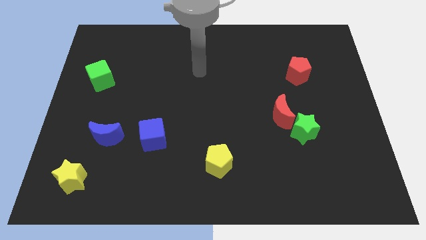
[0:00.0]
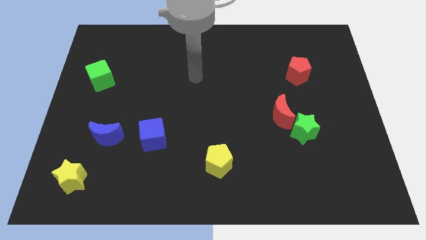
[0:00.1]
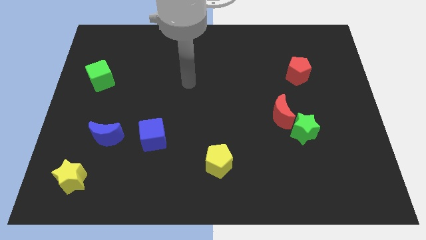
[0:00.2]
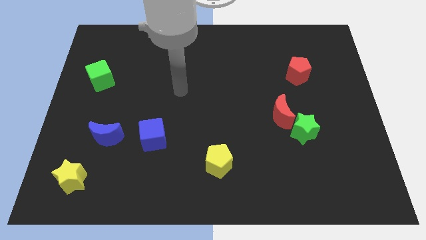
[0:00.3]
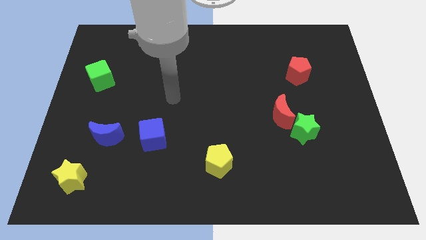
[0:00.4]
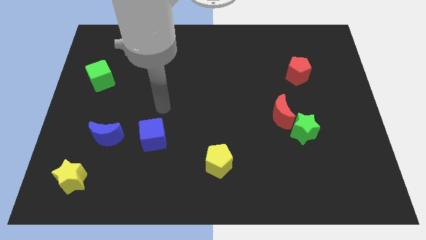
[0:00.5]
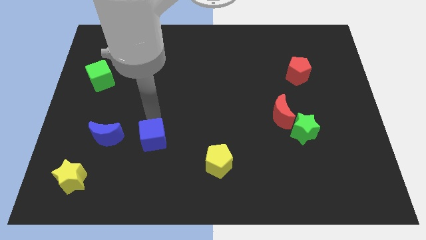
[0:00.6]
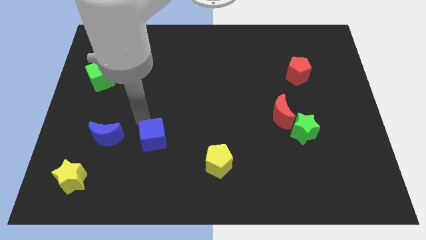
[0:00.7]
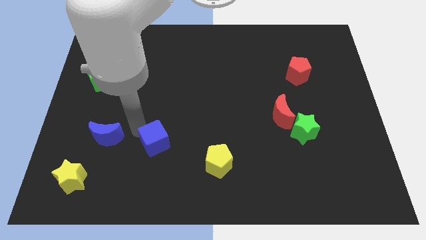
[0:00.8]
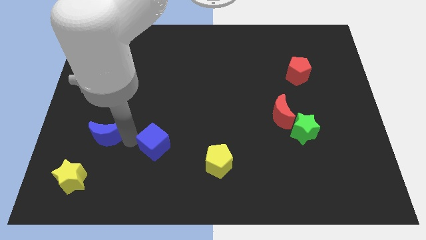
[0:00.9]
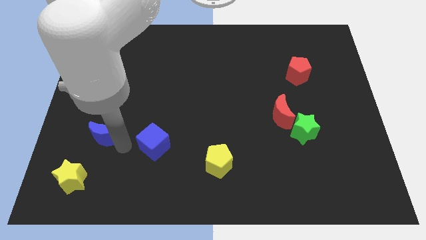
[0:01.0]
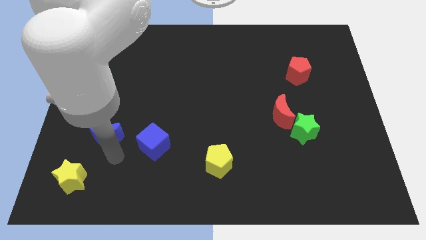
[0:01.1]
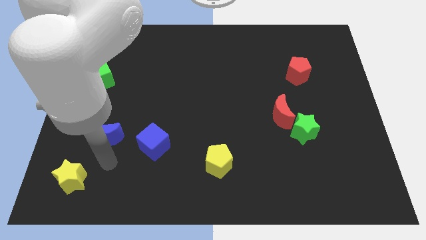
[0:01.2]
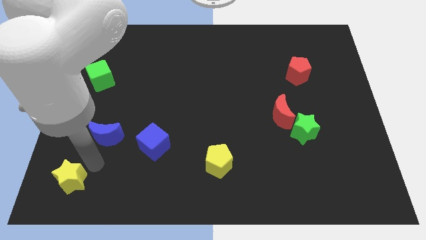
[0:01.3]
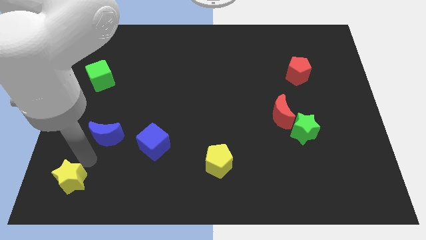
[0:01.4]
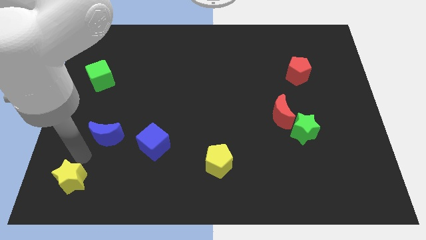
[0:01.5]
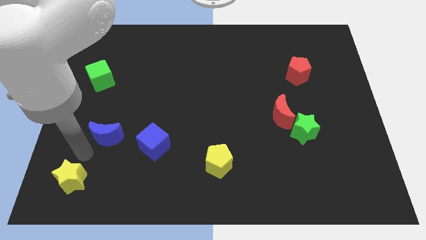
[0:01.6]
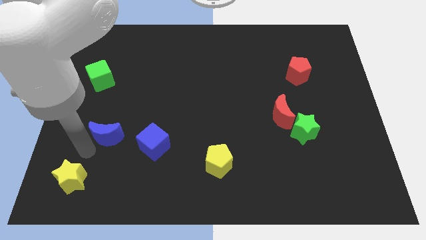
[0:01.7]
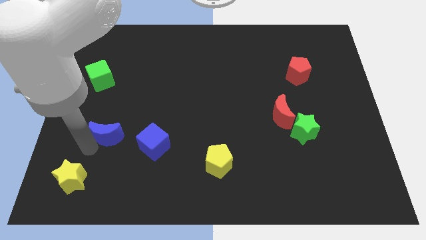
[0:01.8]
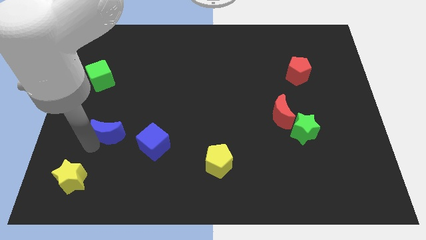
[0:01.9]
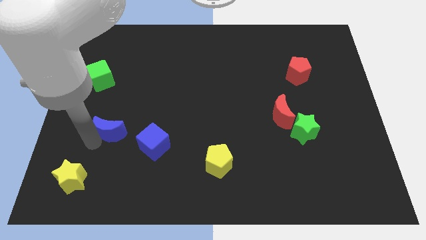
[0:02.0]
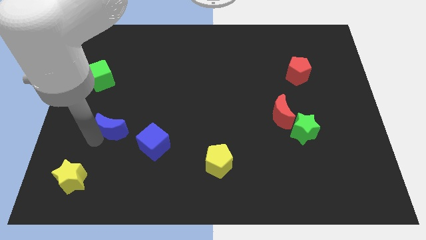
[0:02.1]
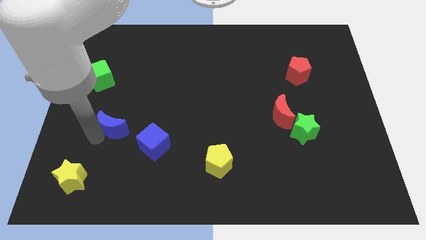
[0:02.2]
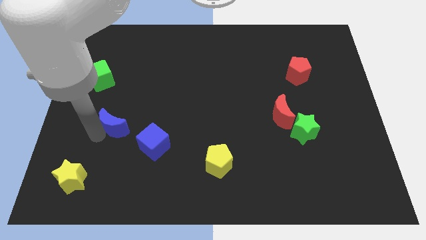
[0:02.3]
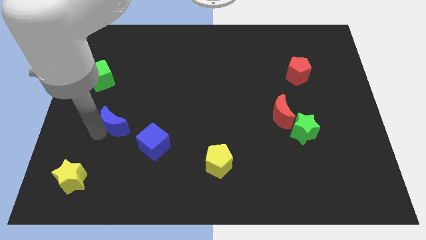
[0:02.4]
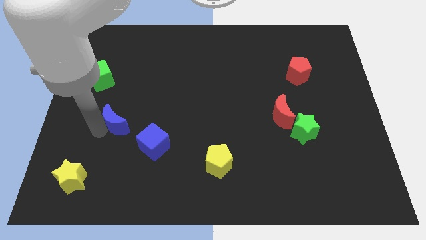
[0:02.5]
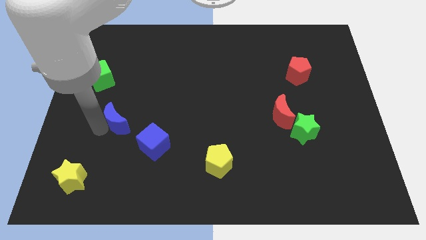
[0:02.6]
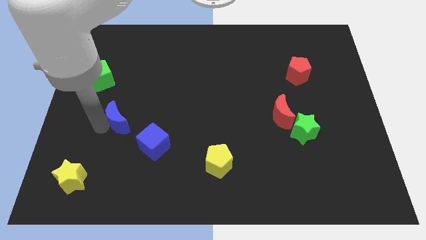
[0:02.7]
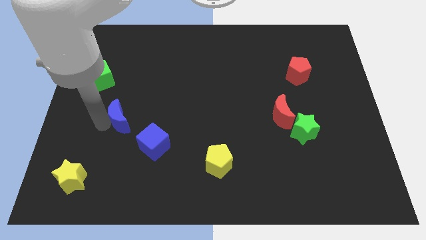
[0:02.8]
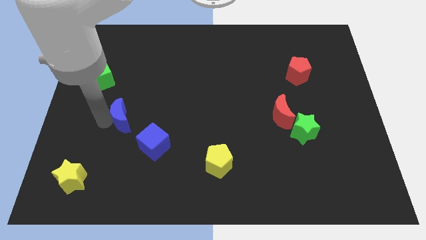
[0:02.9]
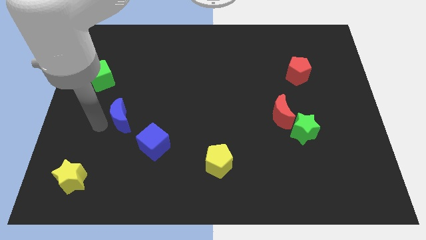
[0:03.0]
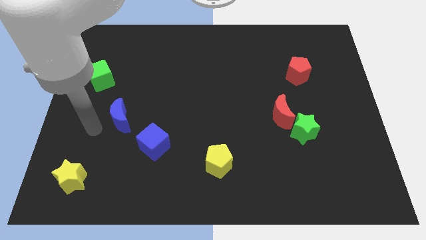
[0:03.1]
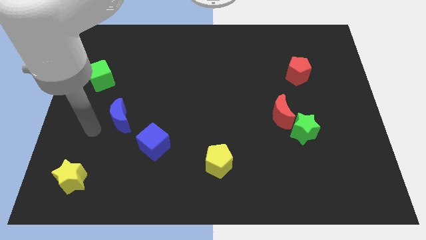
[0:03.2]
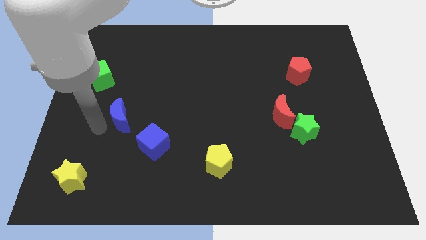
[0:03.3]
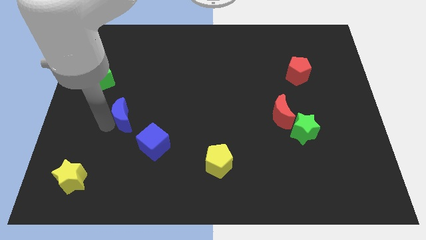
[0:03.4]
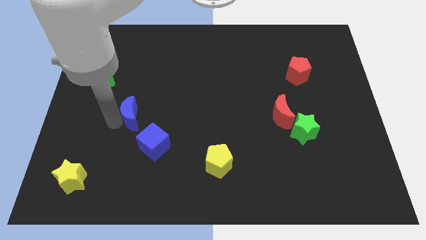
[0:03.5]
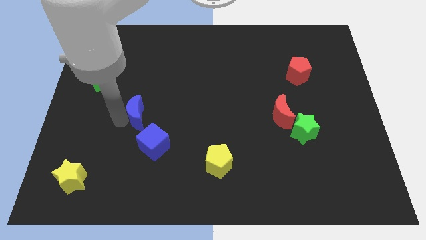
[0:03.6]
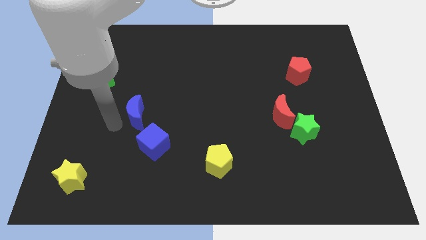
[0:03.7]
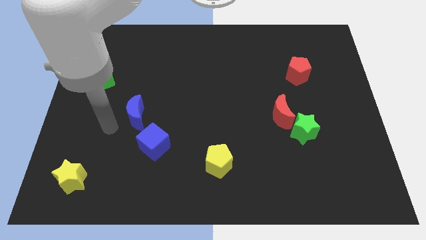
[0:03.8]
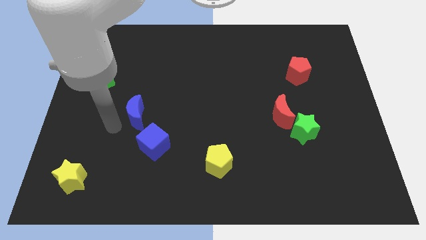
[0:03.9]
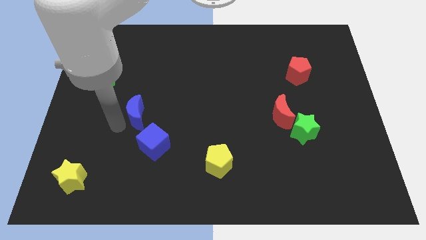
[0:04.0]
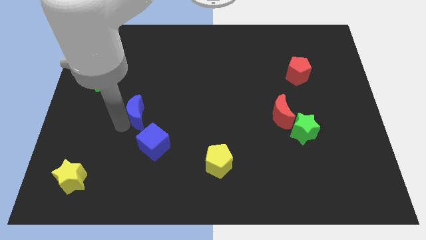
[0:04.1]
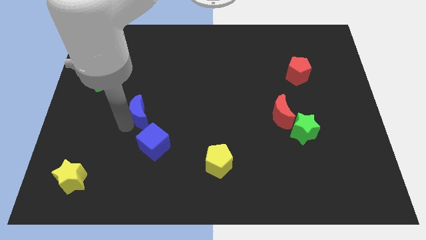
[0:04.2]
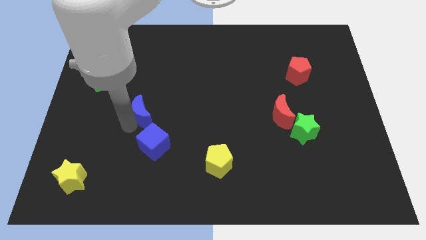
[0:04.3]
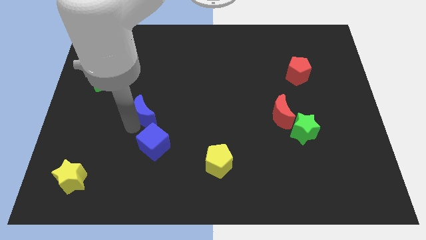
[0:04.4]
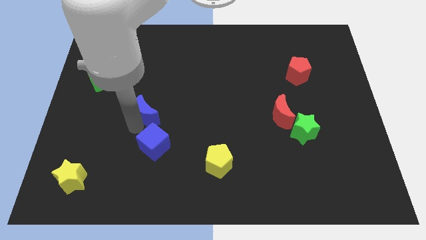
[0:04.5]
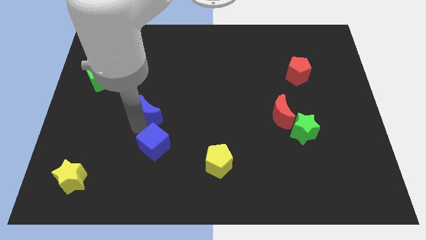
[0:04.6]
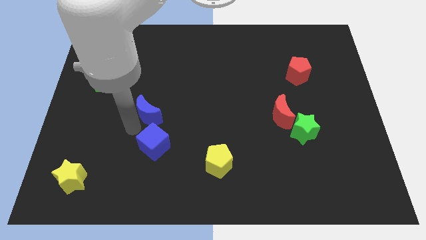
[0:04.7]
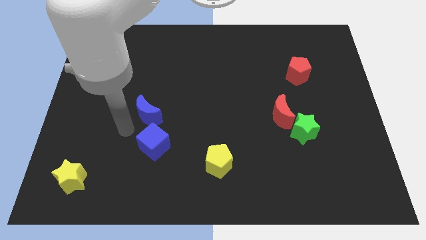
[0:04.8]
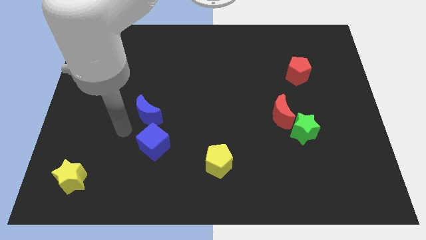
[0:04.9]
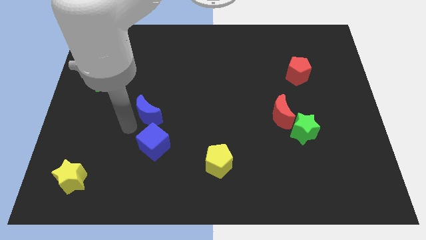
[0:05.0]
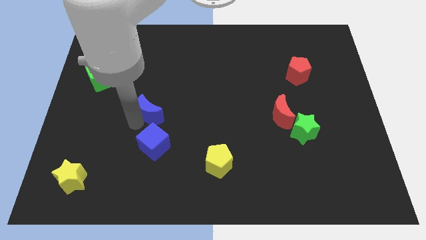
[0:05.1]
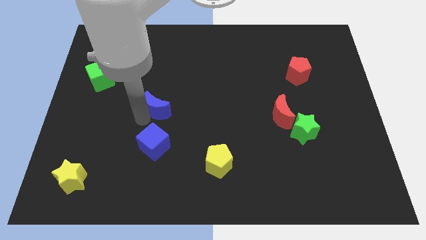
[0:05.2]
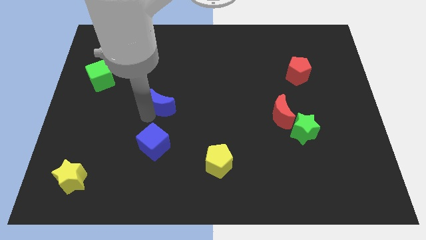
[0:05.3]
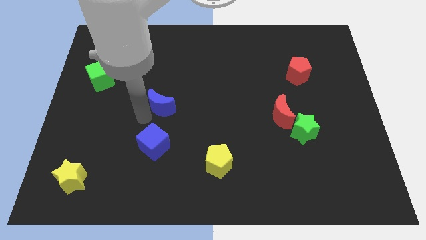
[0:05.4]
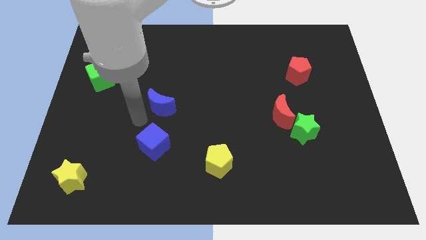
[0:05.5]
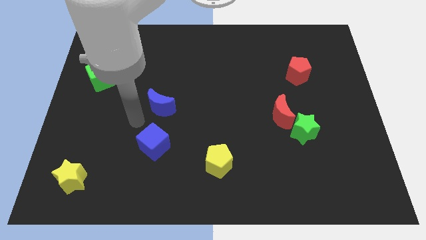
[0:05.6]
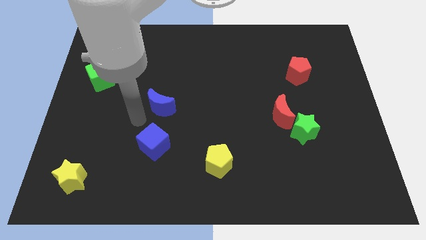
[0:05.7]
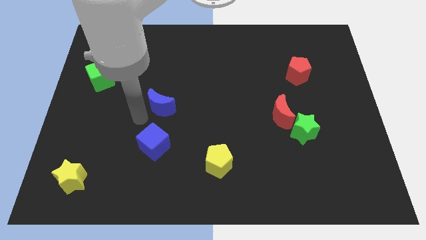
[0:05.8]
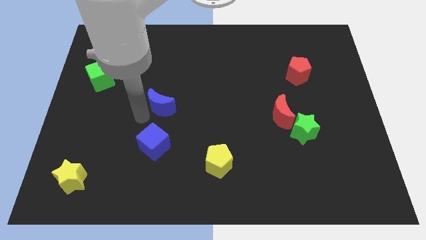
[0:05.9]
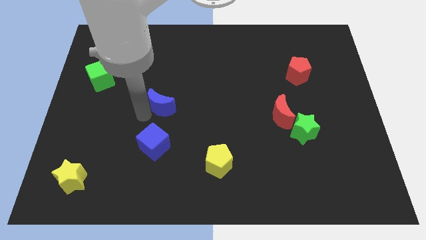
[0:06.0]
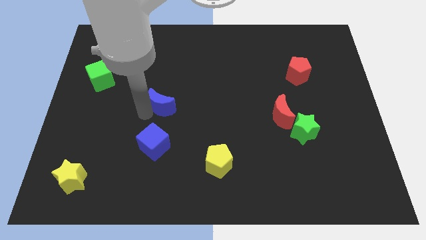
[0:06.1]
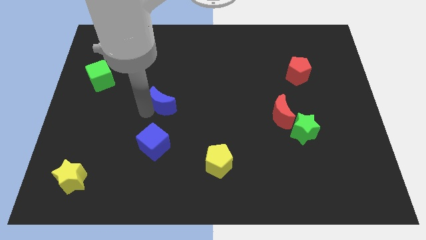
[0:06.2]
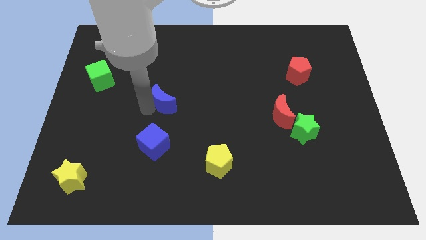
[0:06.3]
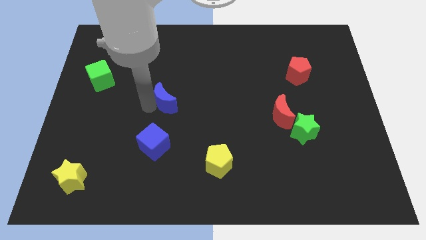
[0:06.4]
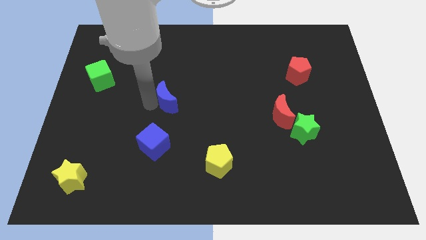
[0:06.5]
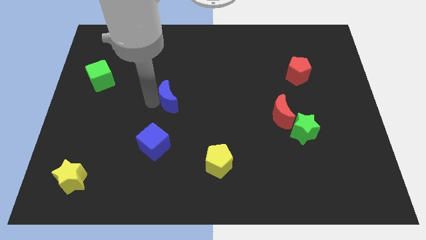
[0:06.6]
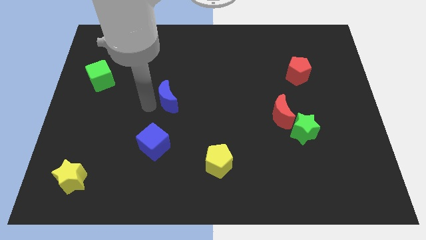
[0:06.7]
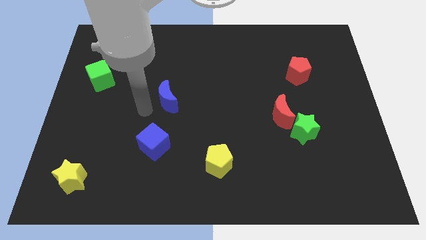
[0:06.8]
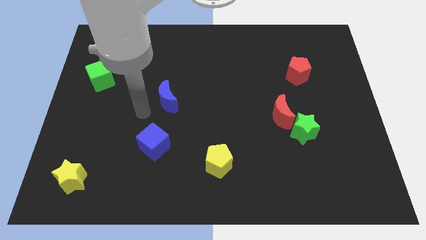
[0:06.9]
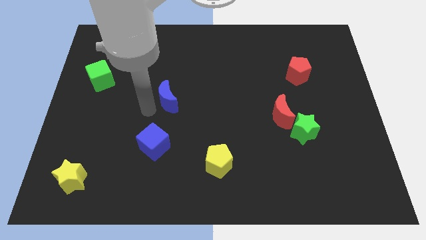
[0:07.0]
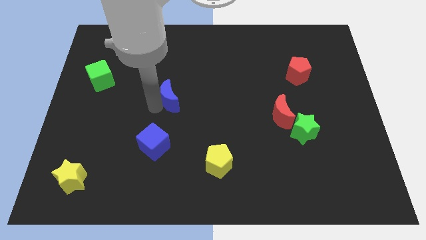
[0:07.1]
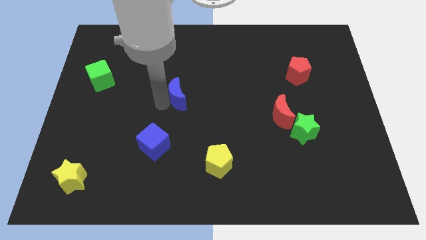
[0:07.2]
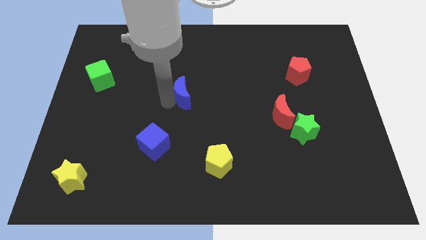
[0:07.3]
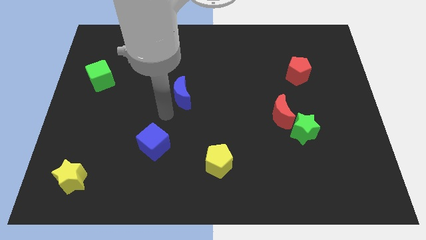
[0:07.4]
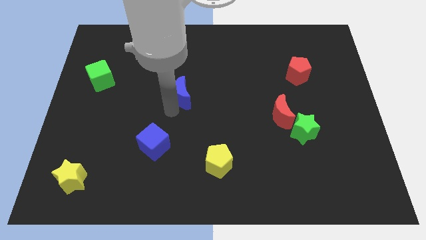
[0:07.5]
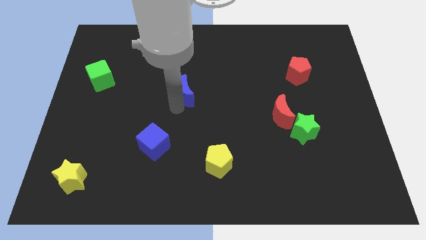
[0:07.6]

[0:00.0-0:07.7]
push the blue moon diagonally upwards and to the right

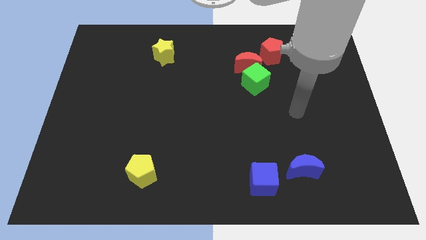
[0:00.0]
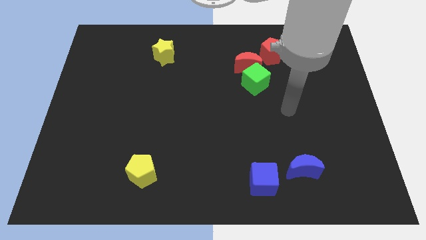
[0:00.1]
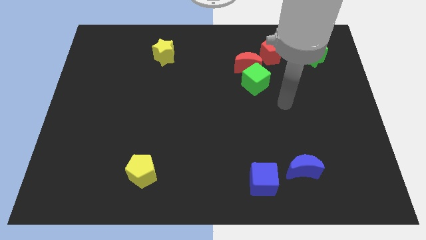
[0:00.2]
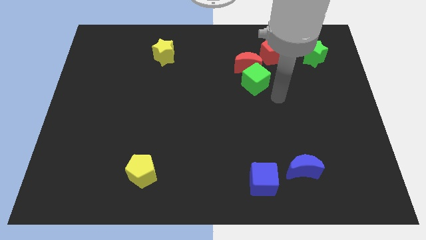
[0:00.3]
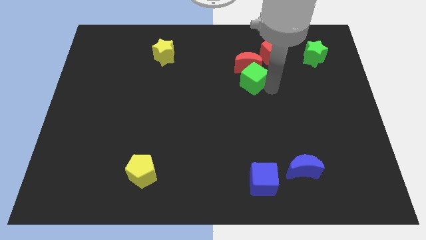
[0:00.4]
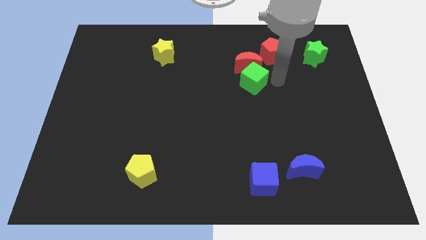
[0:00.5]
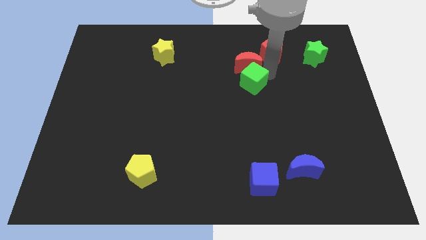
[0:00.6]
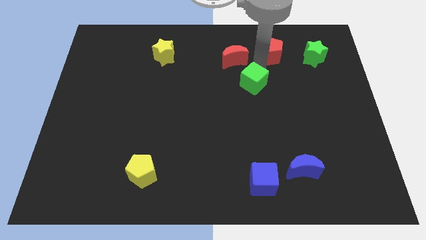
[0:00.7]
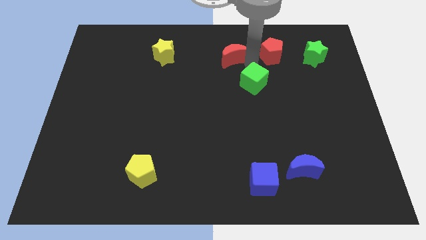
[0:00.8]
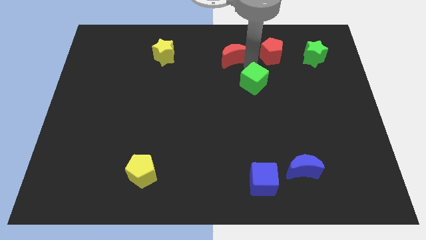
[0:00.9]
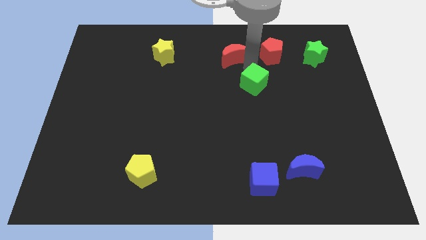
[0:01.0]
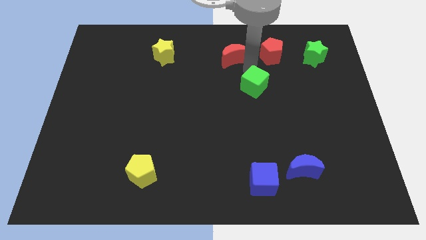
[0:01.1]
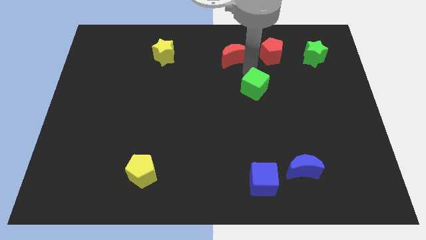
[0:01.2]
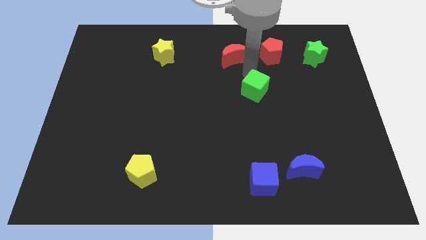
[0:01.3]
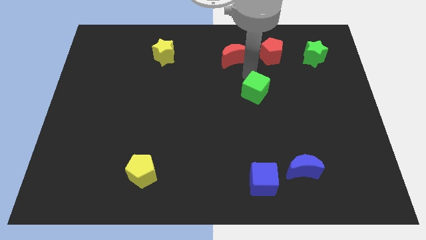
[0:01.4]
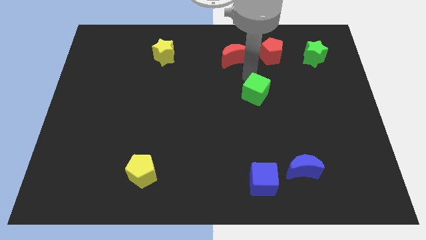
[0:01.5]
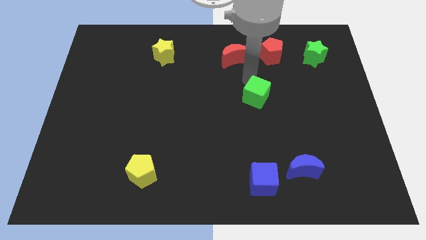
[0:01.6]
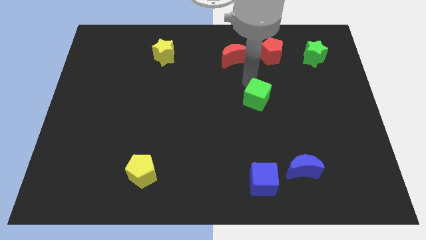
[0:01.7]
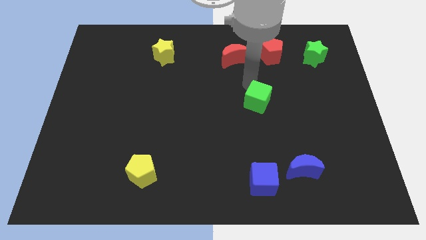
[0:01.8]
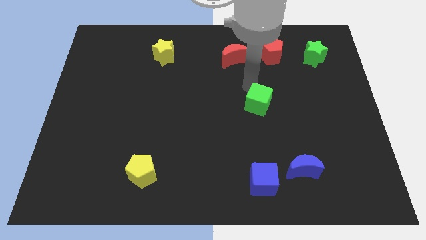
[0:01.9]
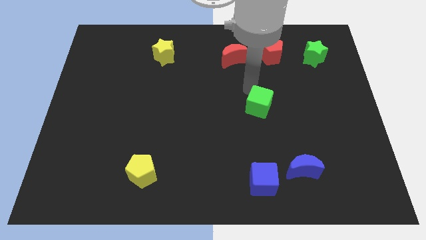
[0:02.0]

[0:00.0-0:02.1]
slide the green cube a bit downwards
